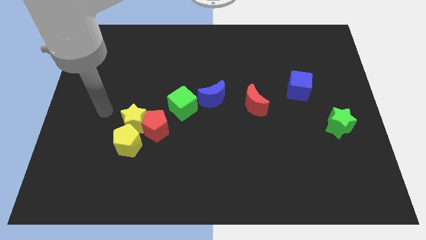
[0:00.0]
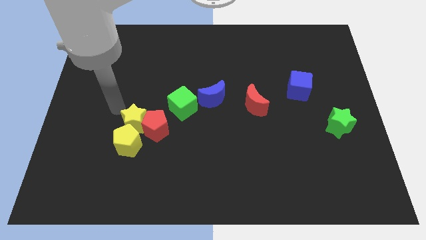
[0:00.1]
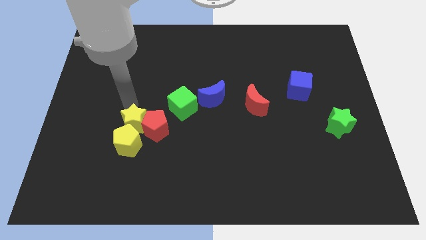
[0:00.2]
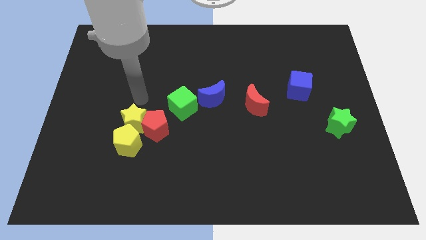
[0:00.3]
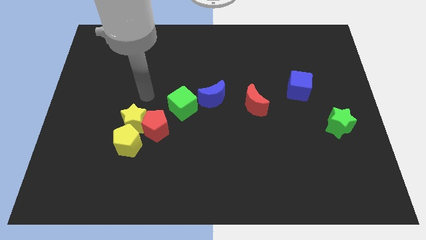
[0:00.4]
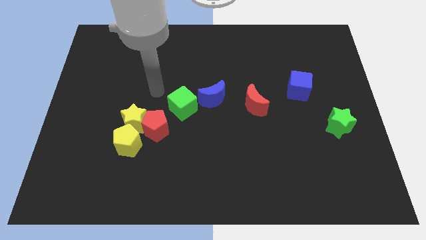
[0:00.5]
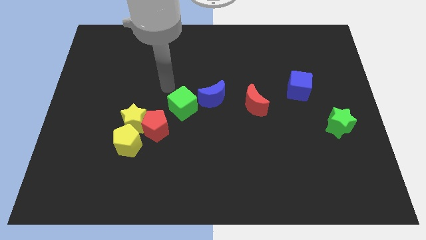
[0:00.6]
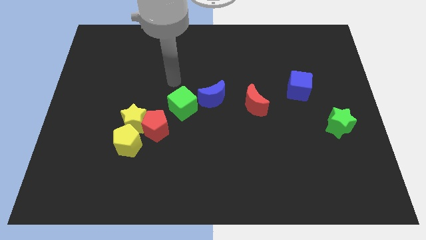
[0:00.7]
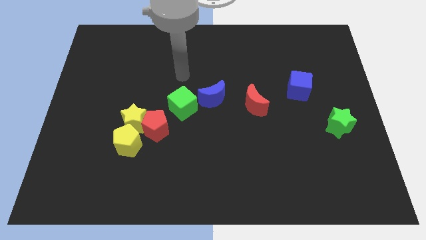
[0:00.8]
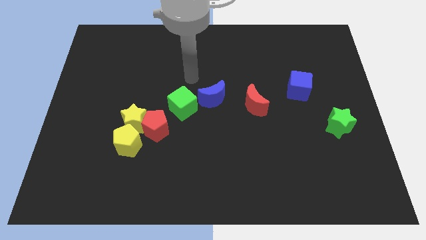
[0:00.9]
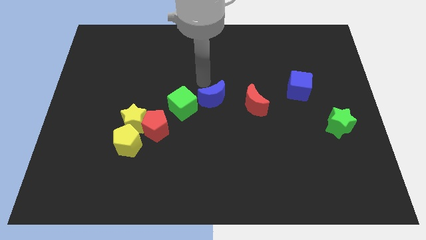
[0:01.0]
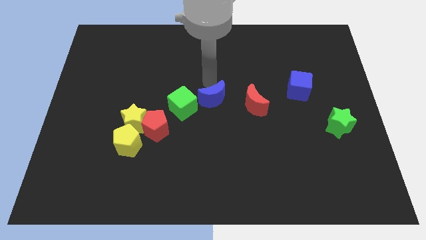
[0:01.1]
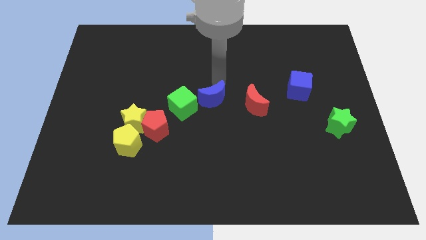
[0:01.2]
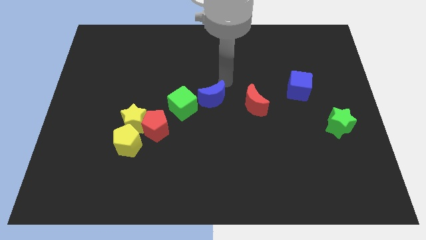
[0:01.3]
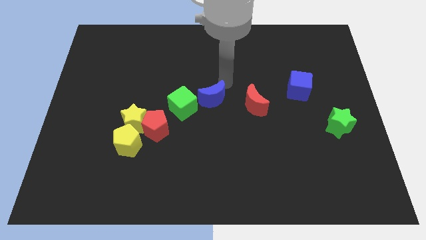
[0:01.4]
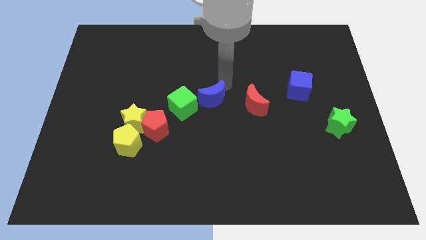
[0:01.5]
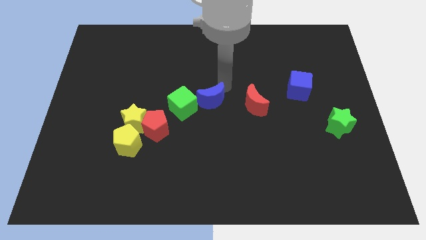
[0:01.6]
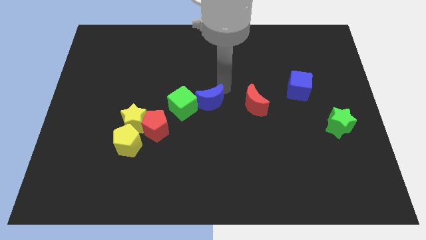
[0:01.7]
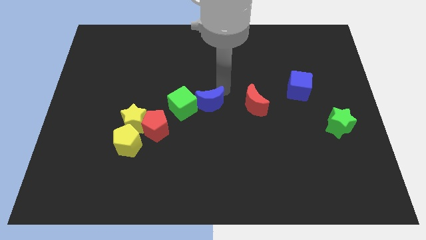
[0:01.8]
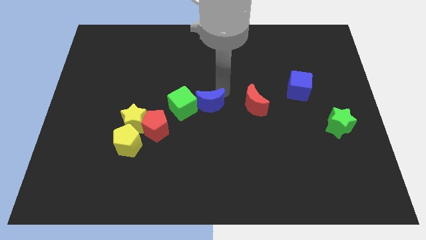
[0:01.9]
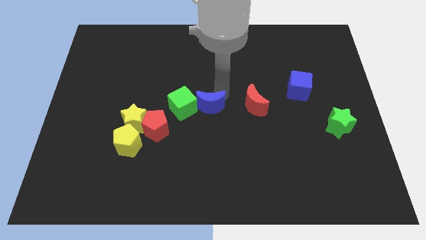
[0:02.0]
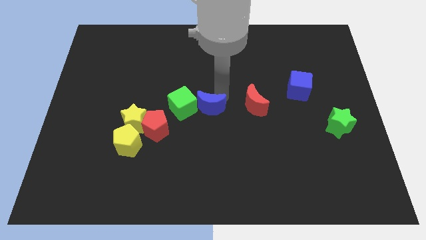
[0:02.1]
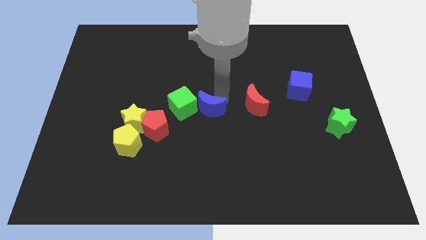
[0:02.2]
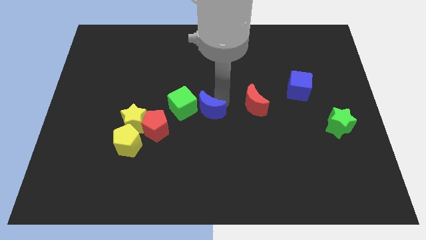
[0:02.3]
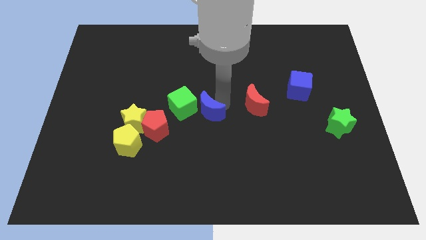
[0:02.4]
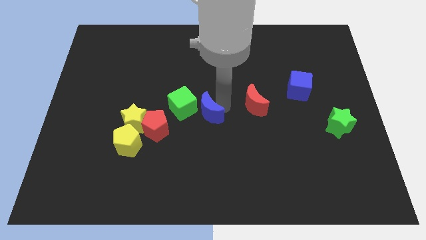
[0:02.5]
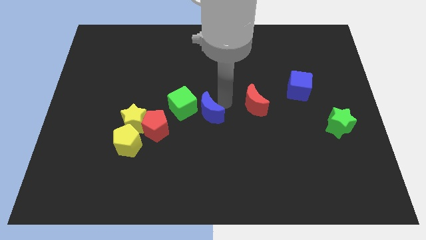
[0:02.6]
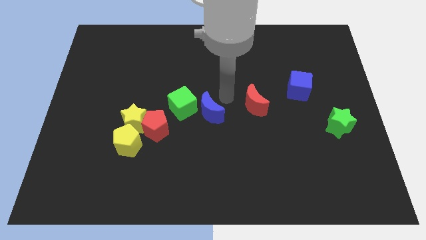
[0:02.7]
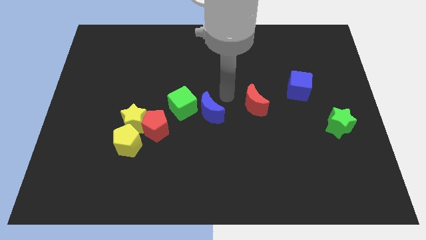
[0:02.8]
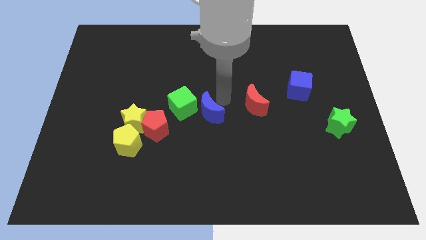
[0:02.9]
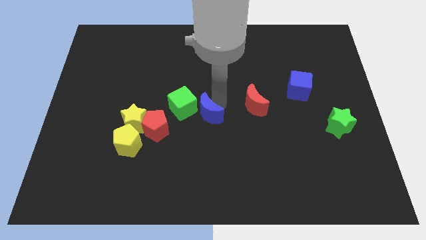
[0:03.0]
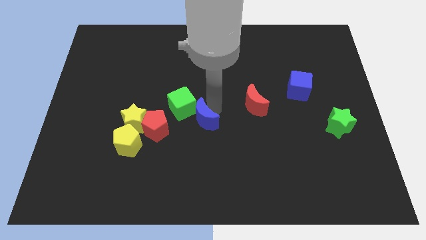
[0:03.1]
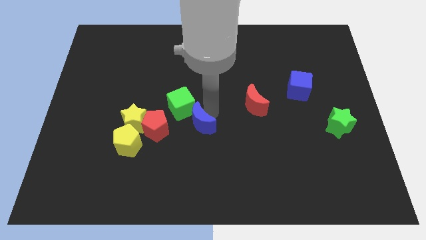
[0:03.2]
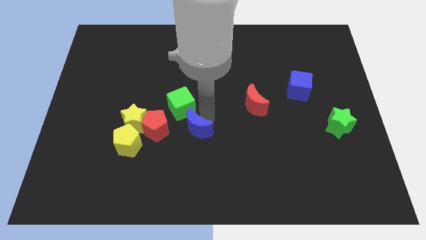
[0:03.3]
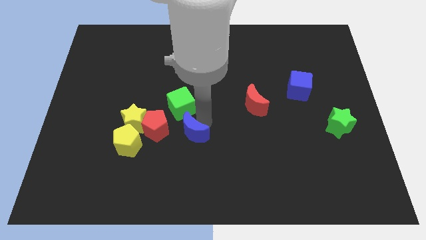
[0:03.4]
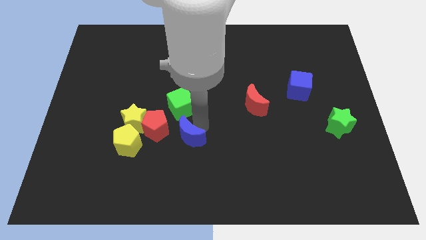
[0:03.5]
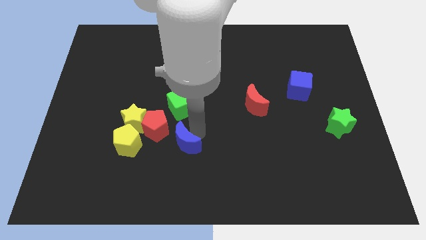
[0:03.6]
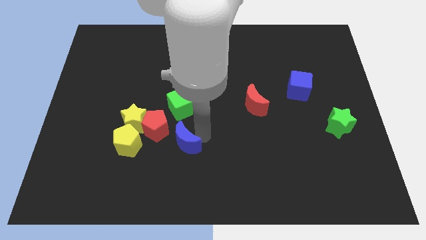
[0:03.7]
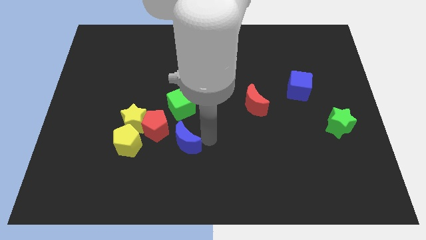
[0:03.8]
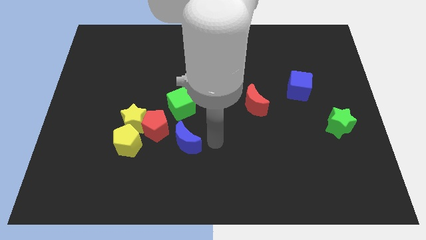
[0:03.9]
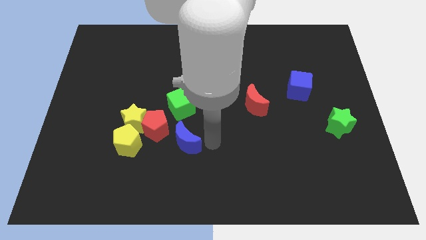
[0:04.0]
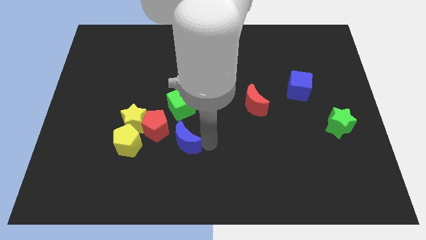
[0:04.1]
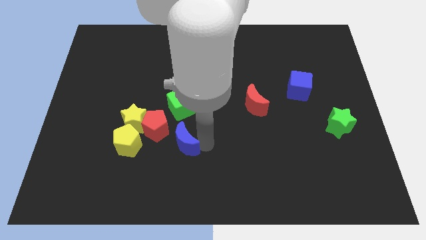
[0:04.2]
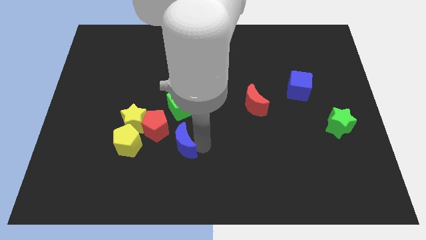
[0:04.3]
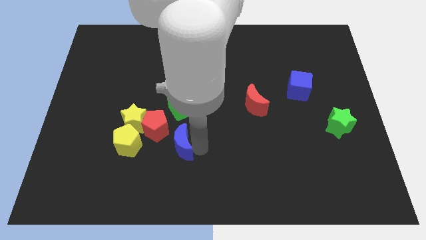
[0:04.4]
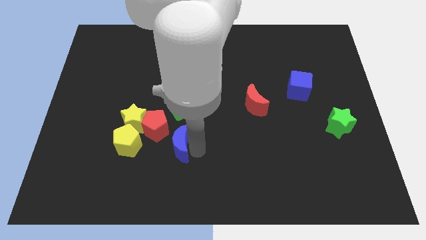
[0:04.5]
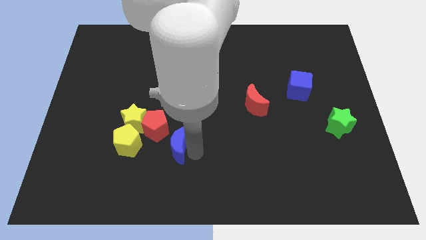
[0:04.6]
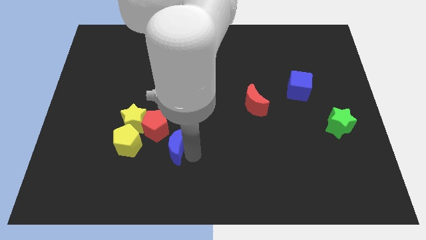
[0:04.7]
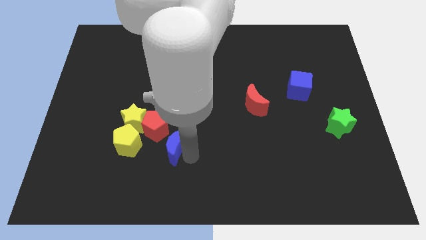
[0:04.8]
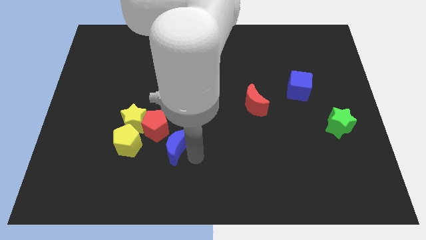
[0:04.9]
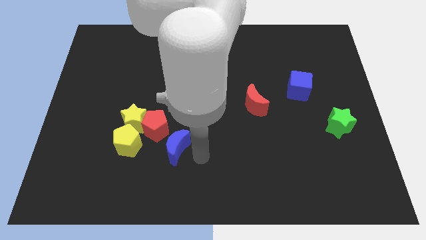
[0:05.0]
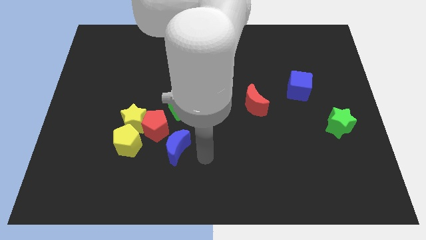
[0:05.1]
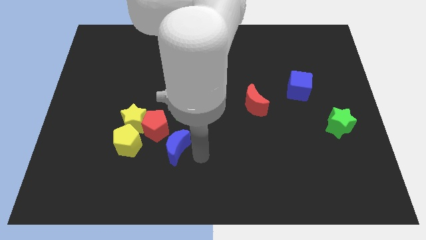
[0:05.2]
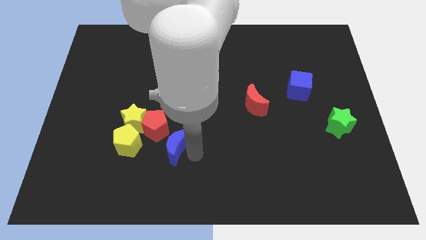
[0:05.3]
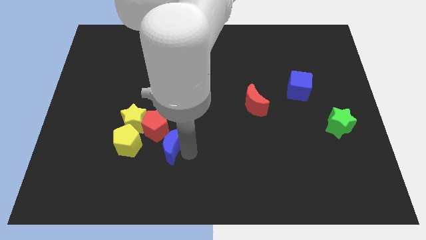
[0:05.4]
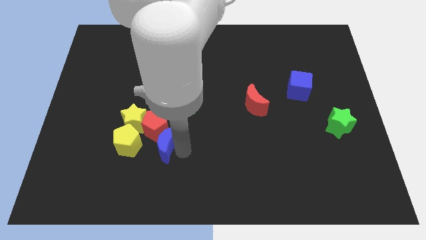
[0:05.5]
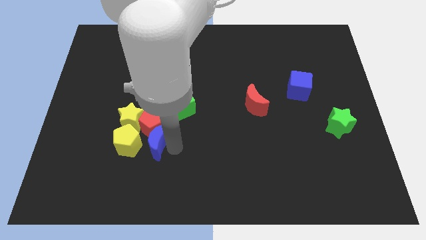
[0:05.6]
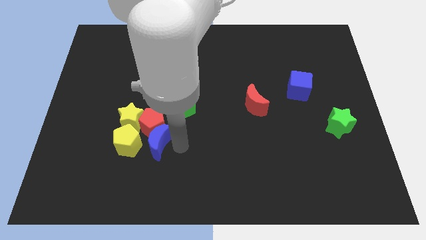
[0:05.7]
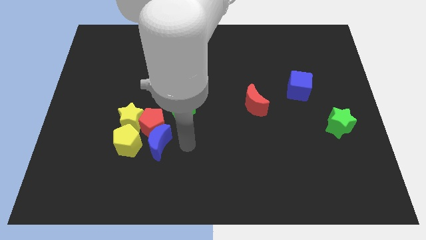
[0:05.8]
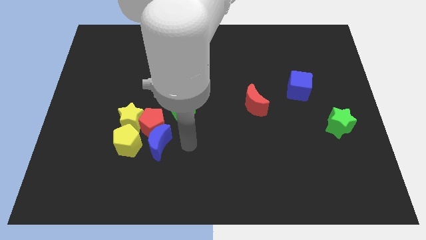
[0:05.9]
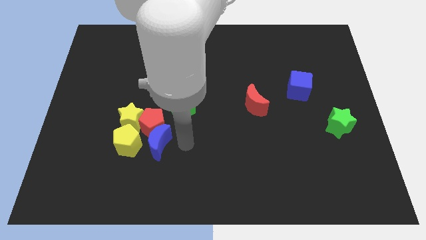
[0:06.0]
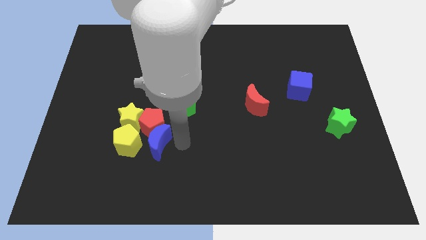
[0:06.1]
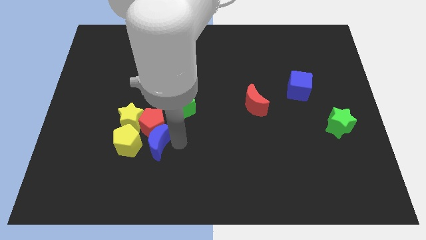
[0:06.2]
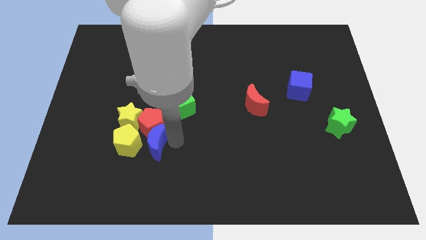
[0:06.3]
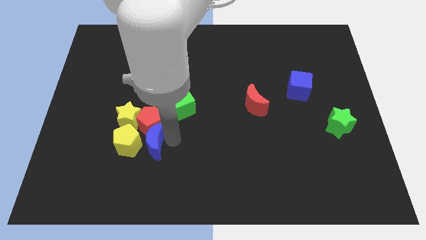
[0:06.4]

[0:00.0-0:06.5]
slide the blue moon close to the yellow pentagon

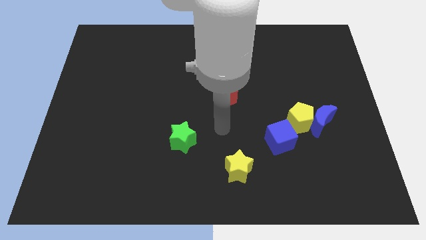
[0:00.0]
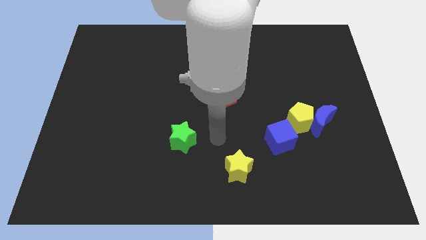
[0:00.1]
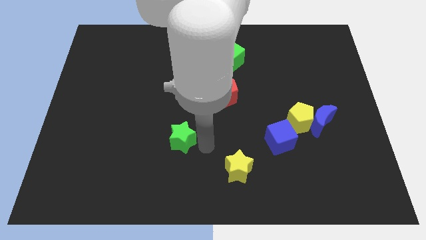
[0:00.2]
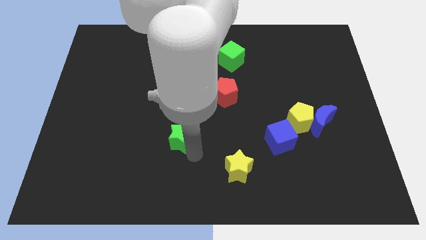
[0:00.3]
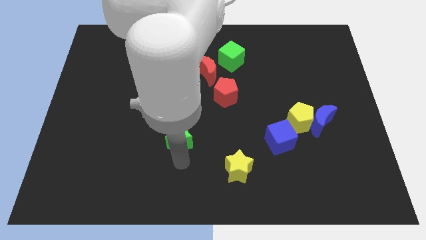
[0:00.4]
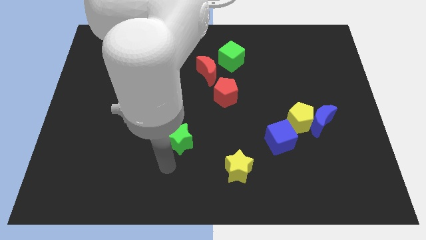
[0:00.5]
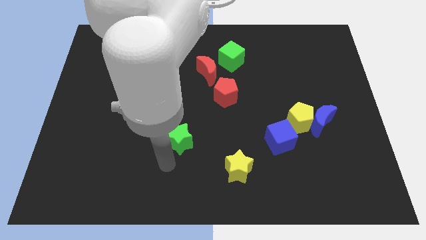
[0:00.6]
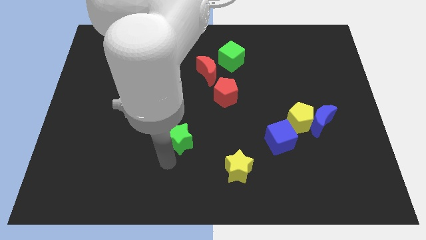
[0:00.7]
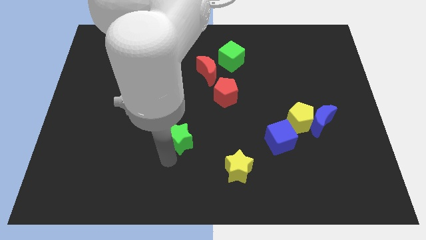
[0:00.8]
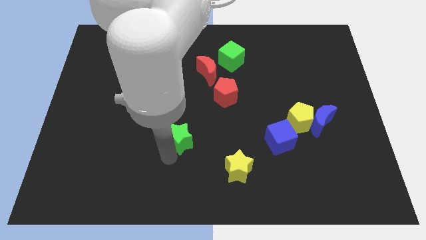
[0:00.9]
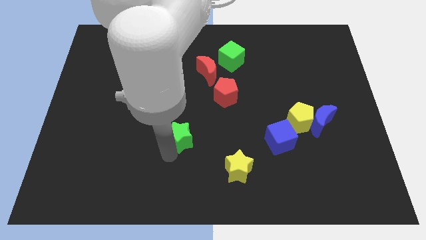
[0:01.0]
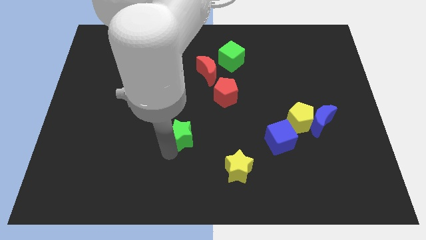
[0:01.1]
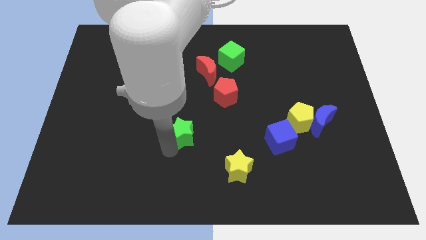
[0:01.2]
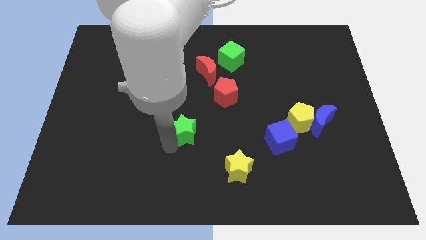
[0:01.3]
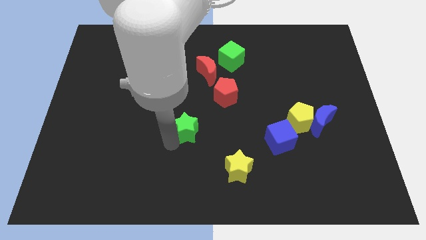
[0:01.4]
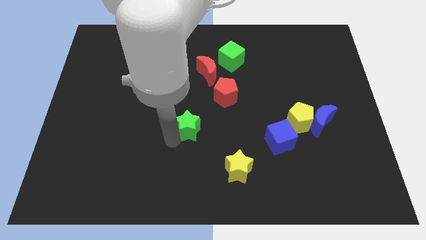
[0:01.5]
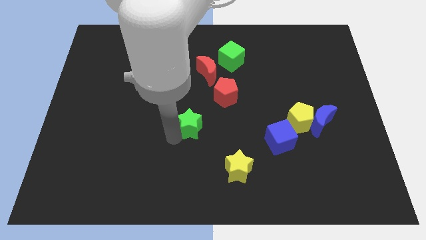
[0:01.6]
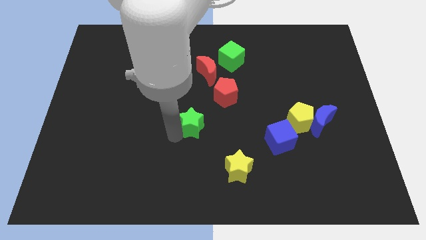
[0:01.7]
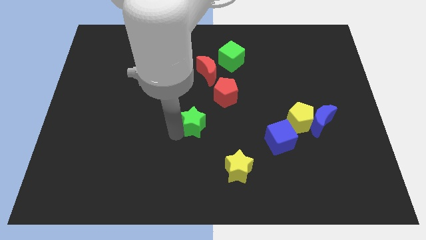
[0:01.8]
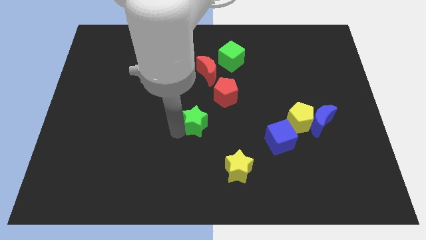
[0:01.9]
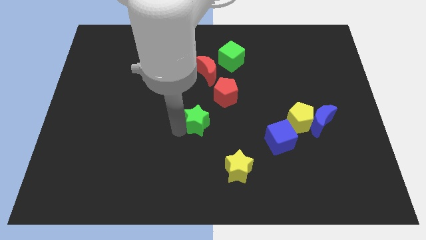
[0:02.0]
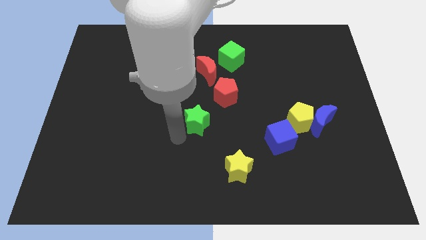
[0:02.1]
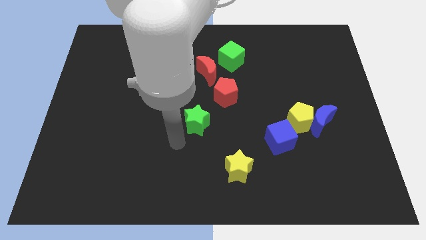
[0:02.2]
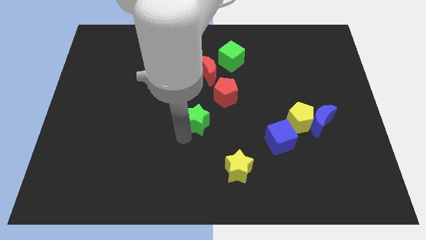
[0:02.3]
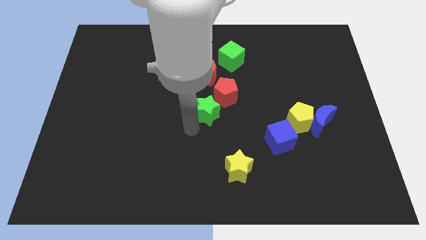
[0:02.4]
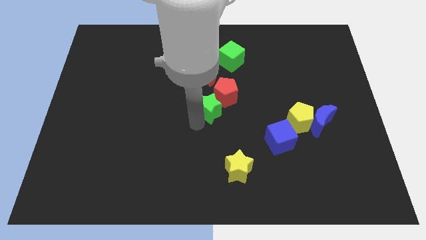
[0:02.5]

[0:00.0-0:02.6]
push the green star towards the red pentagon
